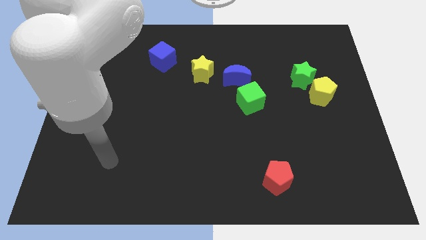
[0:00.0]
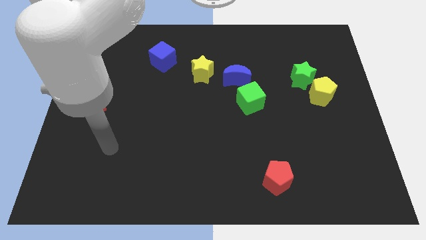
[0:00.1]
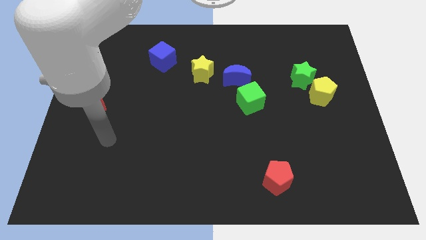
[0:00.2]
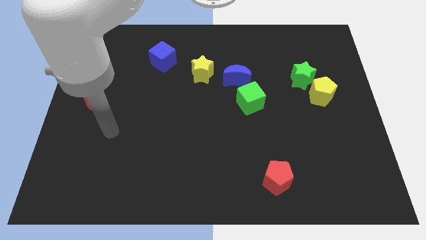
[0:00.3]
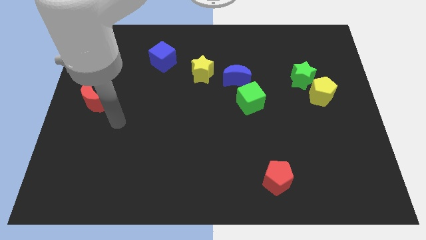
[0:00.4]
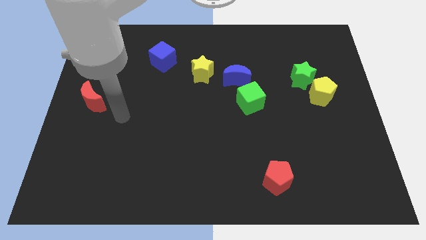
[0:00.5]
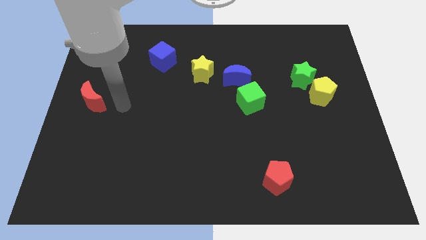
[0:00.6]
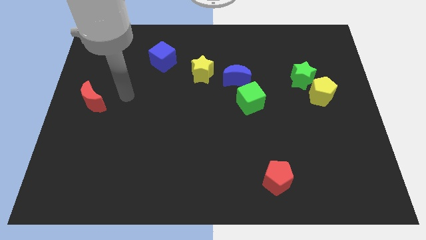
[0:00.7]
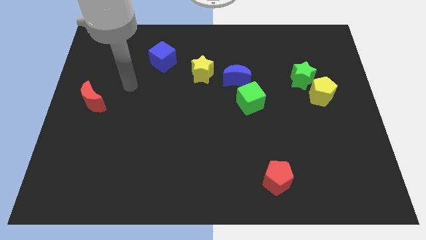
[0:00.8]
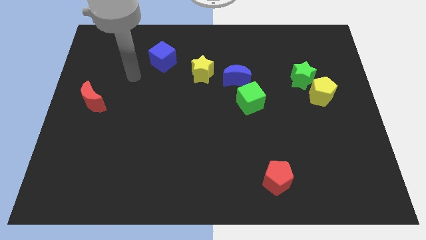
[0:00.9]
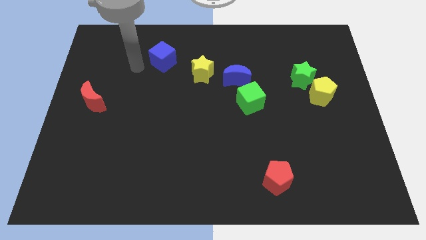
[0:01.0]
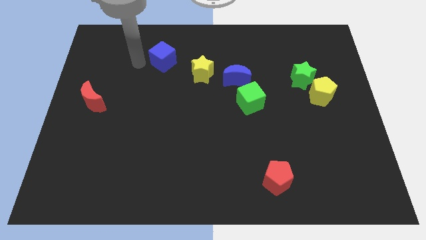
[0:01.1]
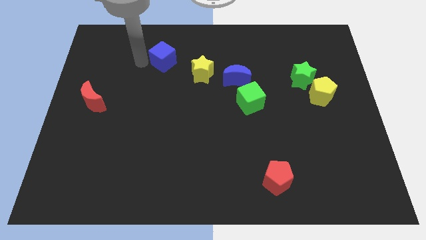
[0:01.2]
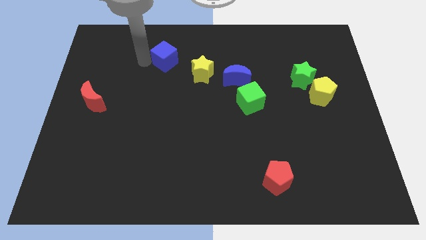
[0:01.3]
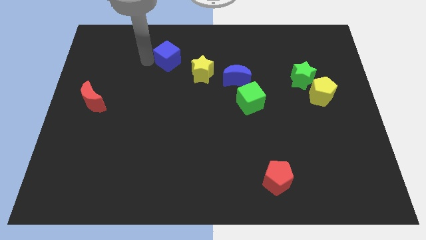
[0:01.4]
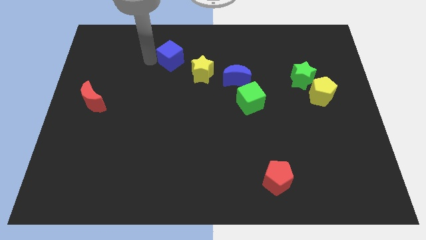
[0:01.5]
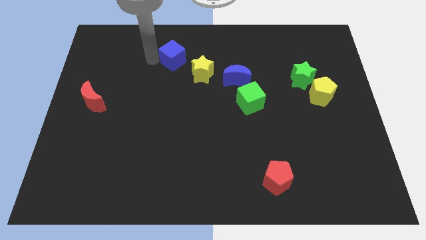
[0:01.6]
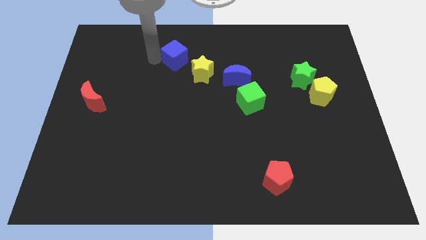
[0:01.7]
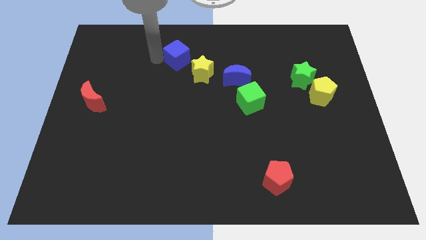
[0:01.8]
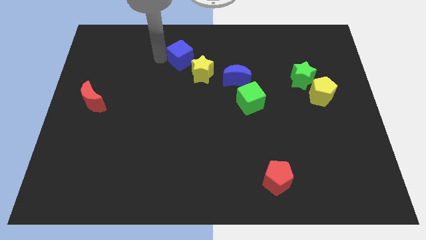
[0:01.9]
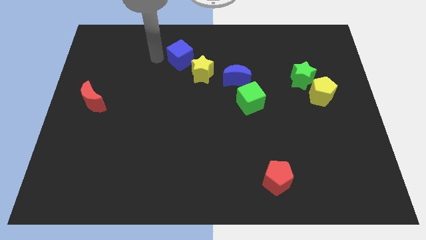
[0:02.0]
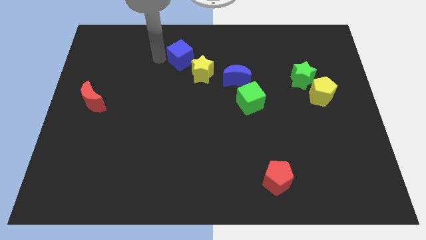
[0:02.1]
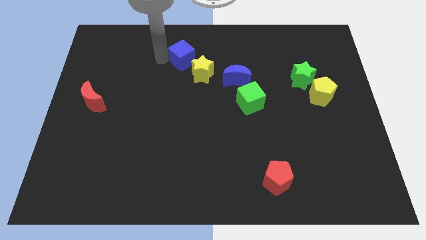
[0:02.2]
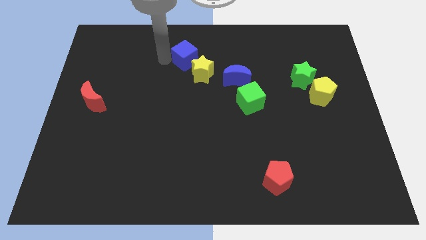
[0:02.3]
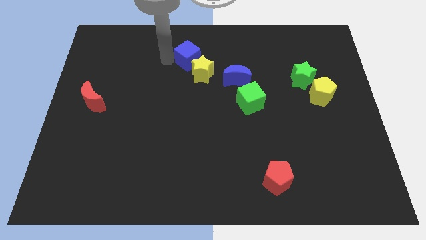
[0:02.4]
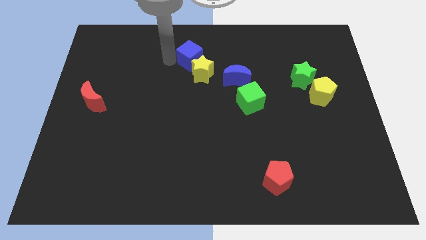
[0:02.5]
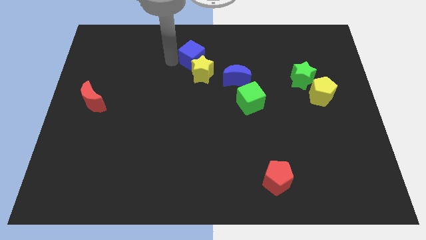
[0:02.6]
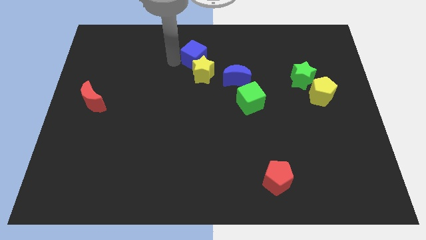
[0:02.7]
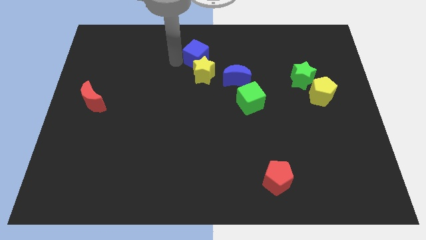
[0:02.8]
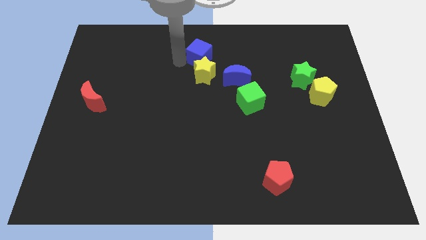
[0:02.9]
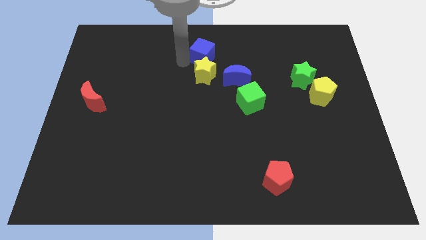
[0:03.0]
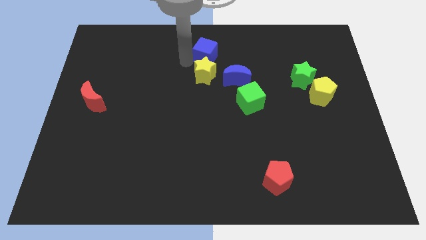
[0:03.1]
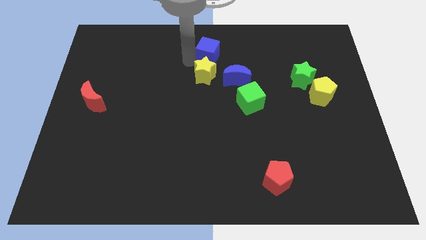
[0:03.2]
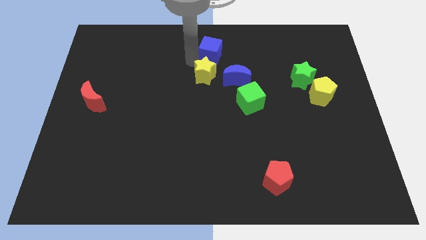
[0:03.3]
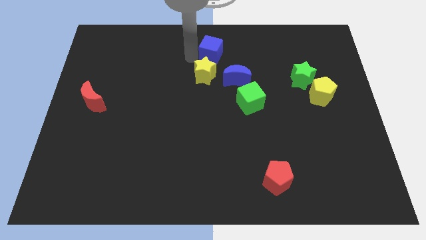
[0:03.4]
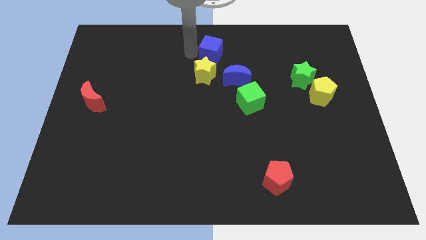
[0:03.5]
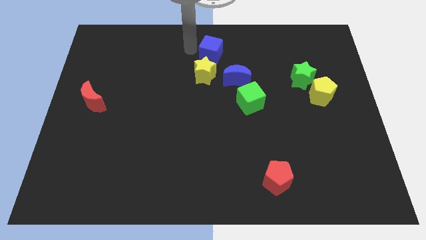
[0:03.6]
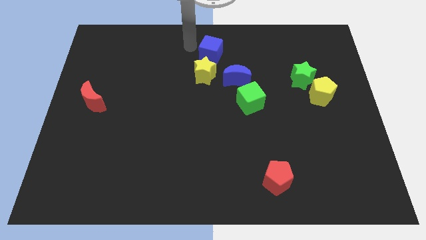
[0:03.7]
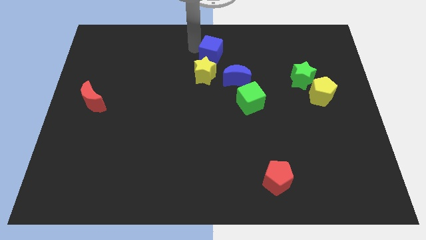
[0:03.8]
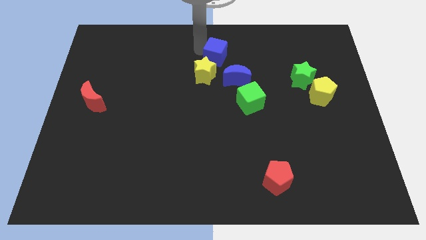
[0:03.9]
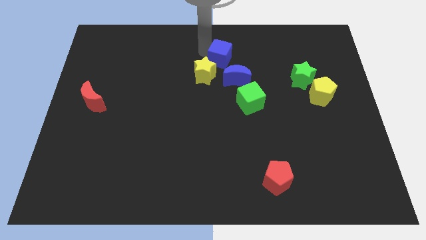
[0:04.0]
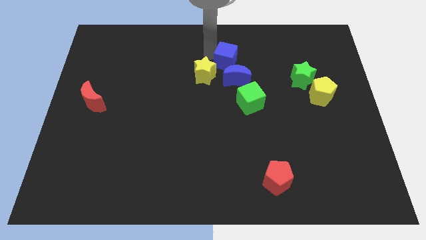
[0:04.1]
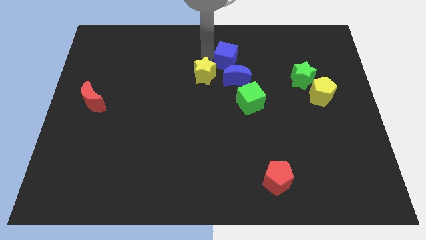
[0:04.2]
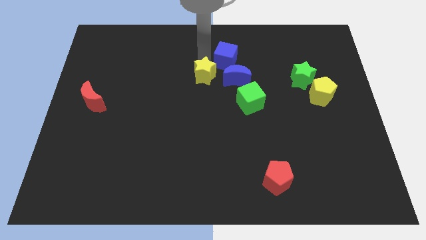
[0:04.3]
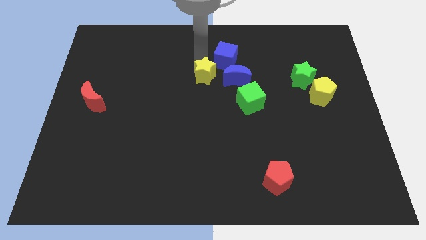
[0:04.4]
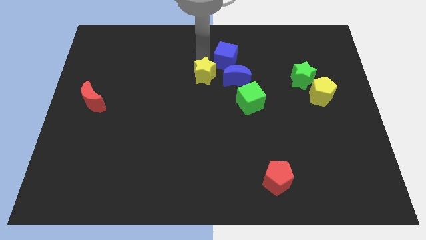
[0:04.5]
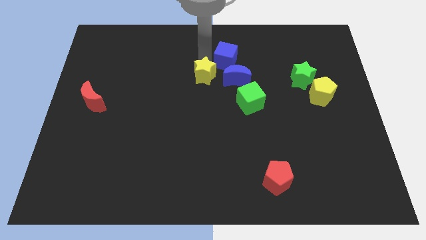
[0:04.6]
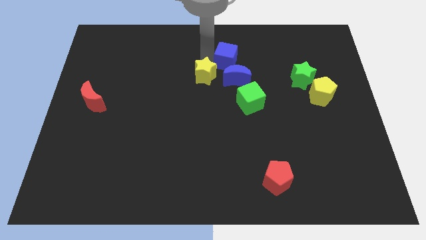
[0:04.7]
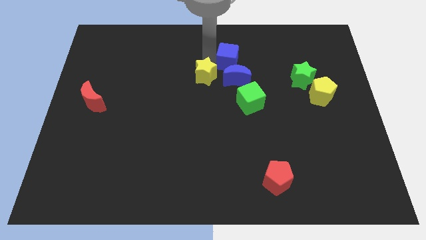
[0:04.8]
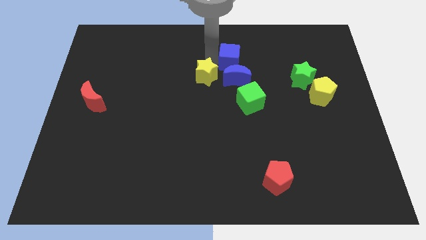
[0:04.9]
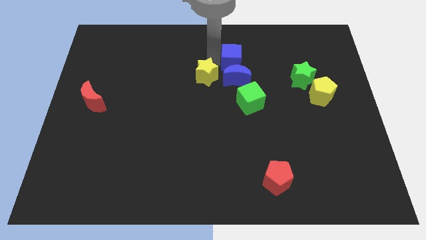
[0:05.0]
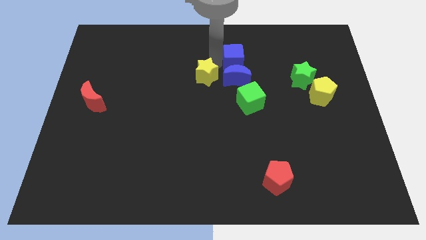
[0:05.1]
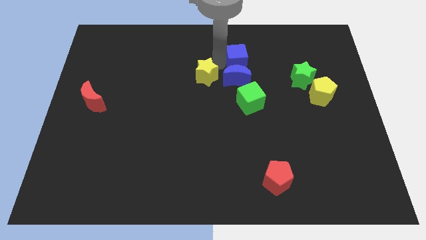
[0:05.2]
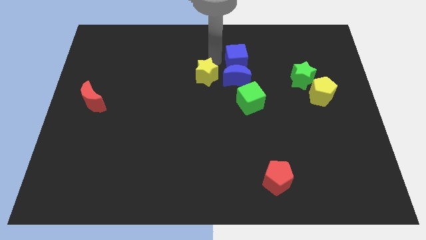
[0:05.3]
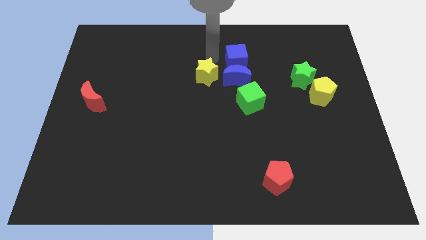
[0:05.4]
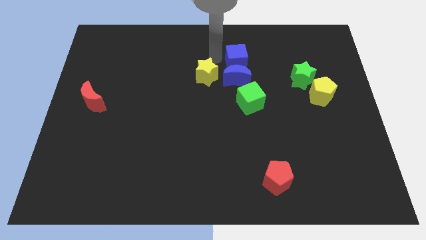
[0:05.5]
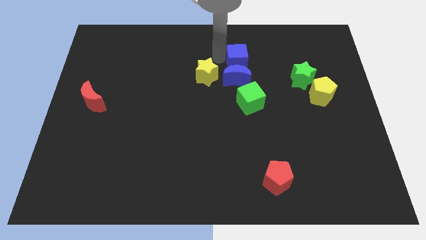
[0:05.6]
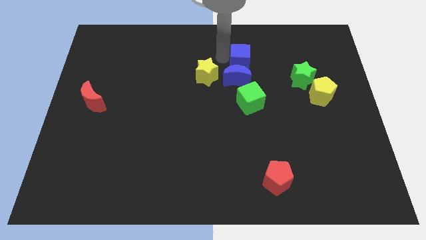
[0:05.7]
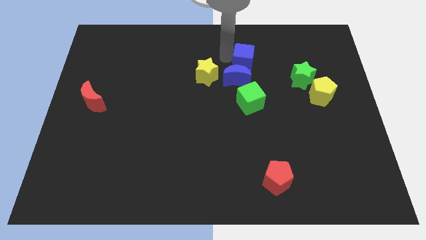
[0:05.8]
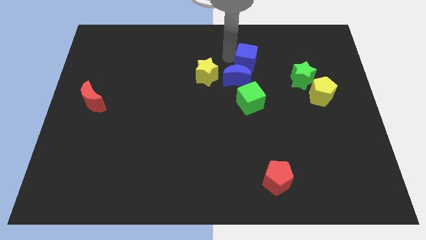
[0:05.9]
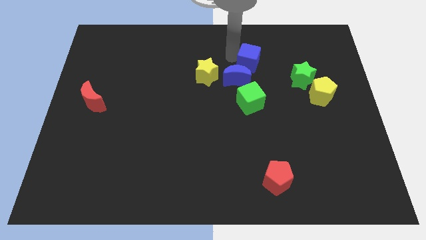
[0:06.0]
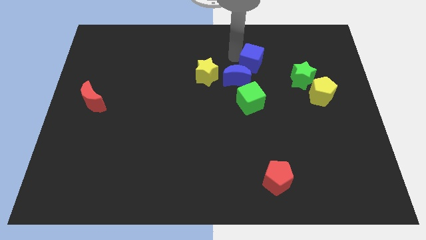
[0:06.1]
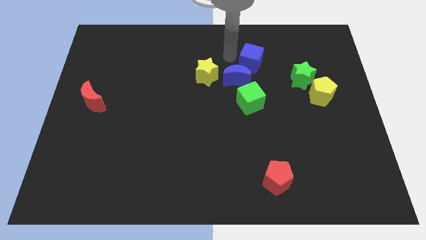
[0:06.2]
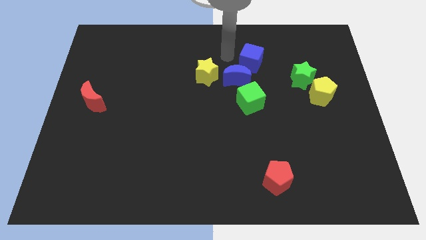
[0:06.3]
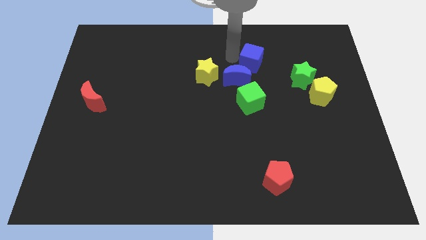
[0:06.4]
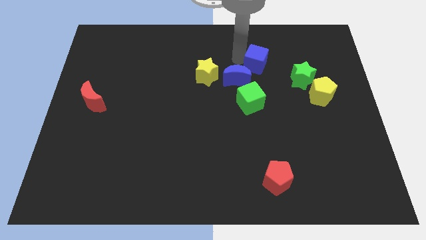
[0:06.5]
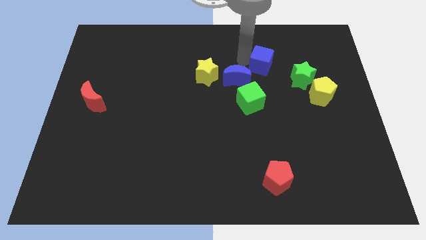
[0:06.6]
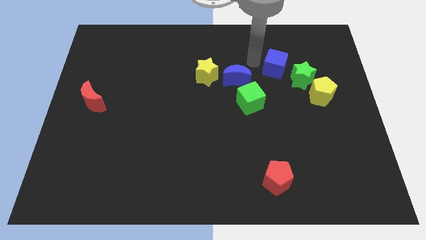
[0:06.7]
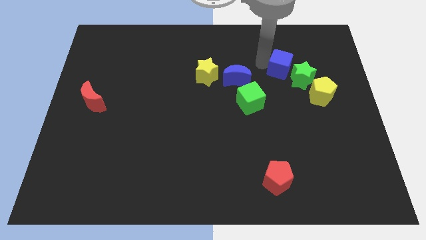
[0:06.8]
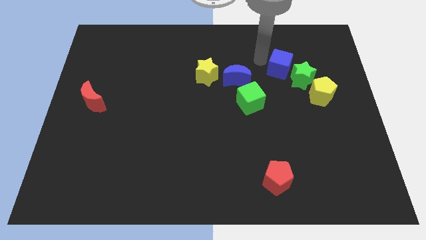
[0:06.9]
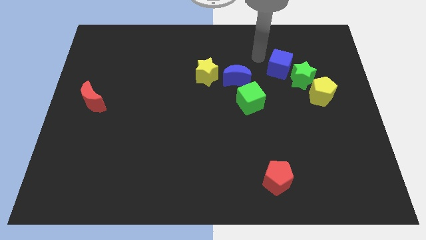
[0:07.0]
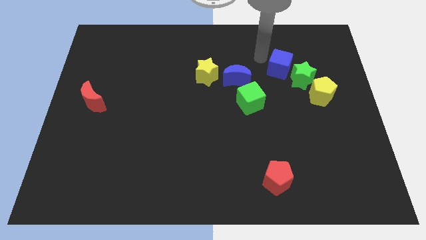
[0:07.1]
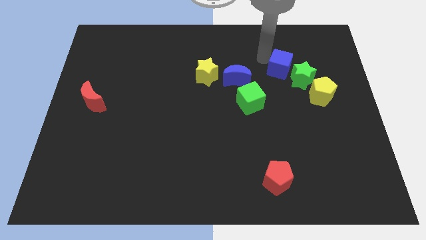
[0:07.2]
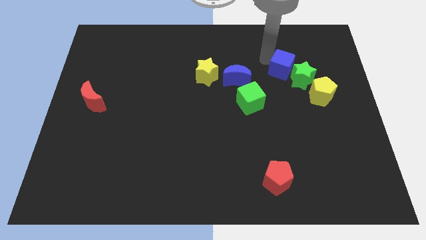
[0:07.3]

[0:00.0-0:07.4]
slide the blue cube to the green star
